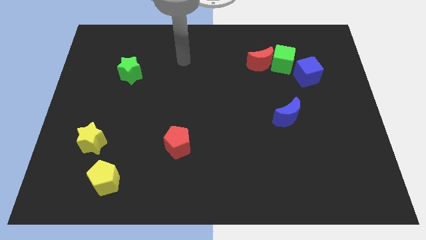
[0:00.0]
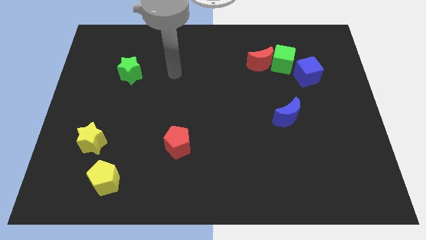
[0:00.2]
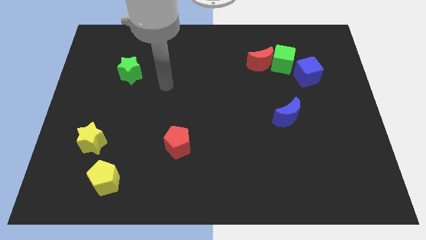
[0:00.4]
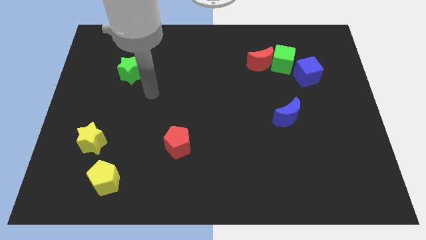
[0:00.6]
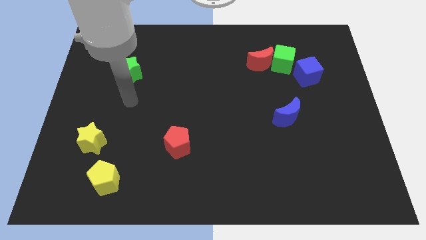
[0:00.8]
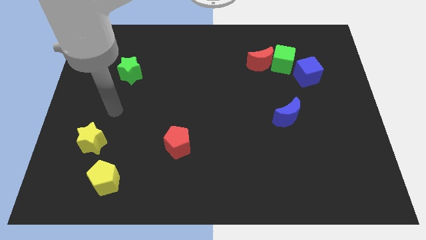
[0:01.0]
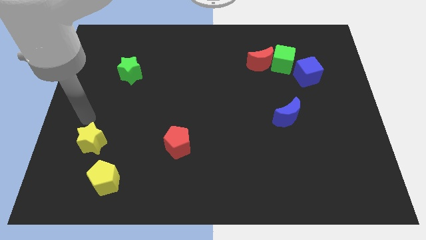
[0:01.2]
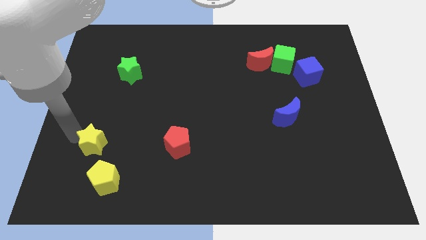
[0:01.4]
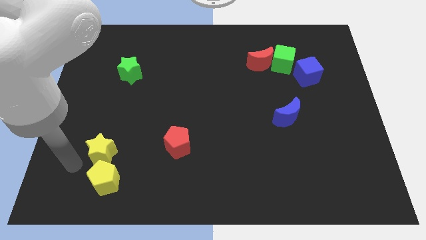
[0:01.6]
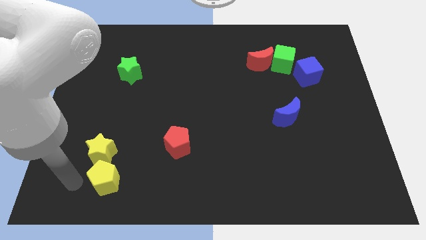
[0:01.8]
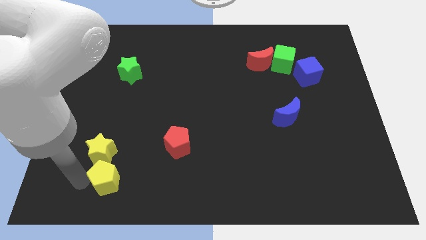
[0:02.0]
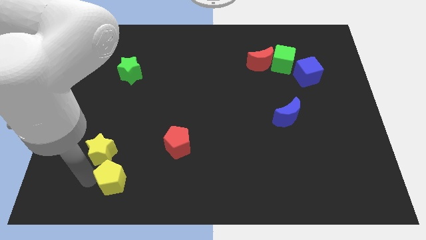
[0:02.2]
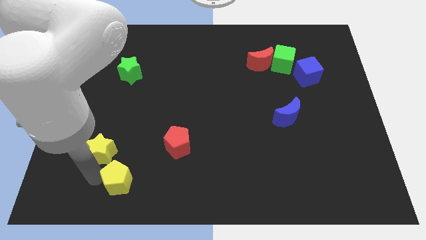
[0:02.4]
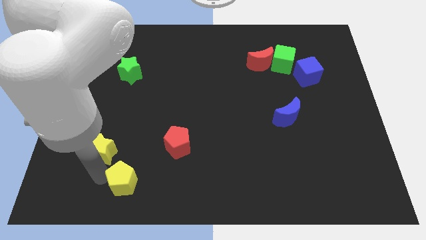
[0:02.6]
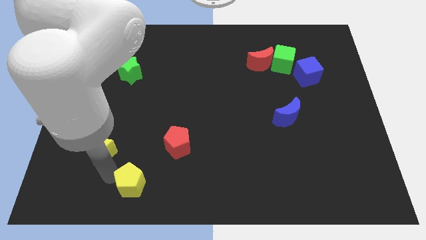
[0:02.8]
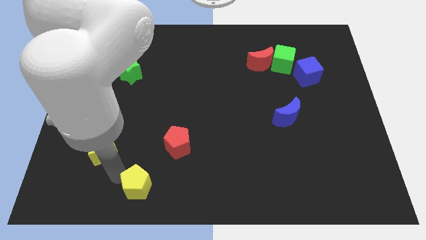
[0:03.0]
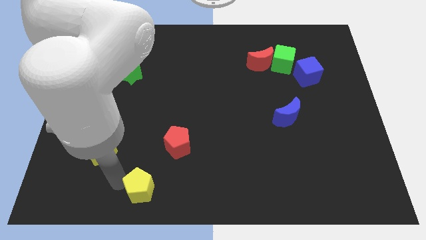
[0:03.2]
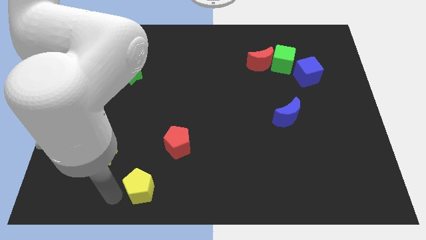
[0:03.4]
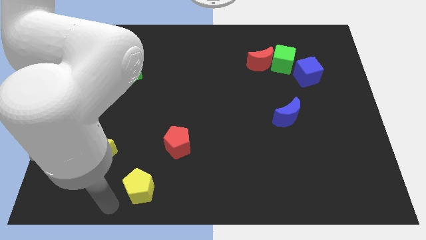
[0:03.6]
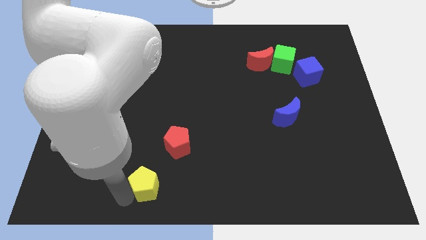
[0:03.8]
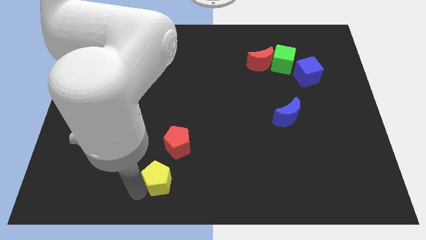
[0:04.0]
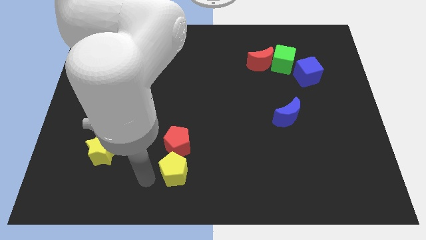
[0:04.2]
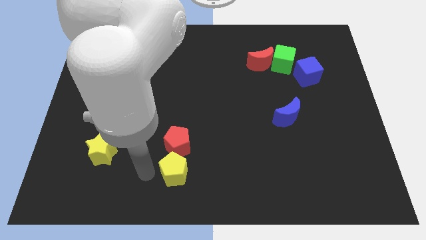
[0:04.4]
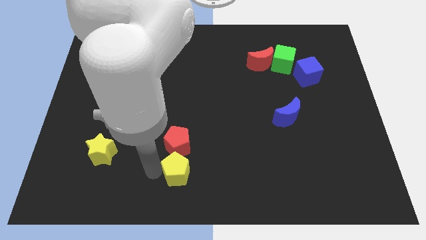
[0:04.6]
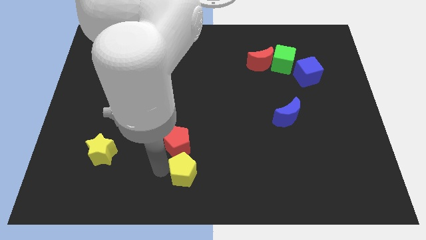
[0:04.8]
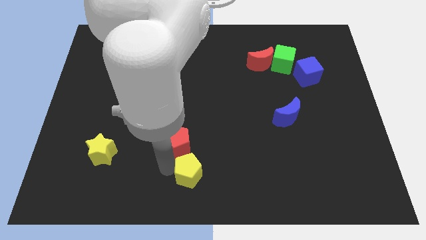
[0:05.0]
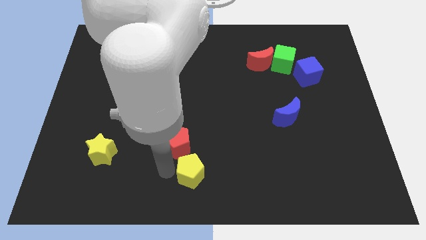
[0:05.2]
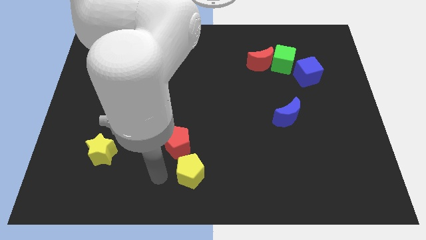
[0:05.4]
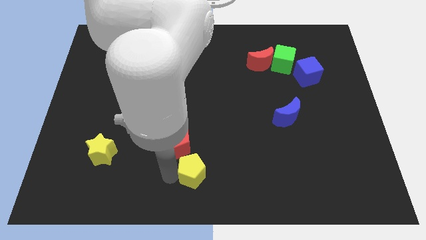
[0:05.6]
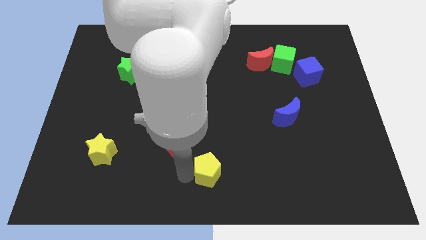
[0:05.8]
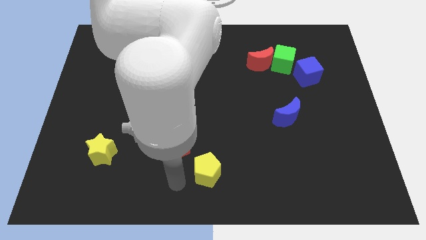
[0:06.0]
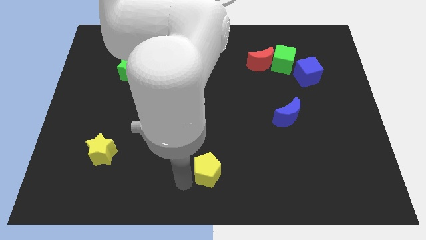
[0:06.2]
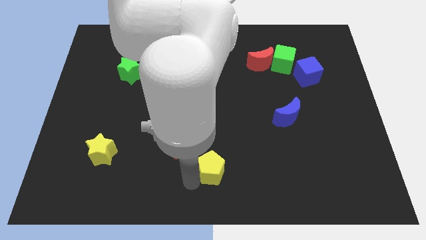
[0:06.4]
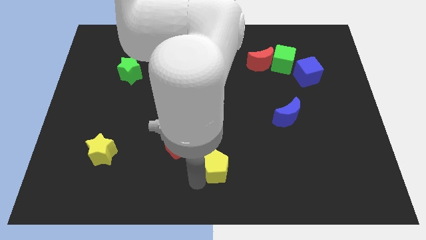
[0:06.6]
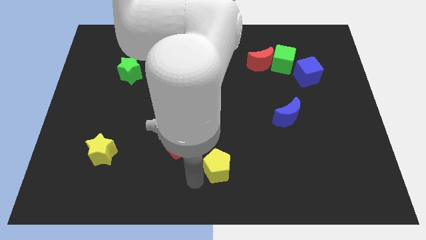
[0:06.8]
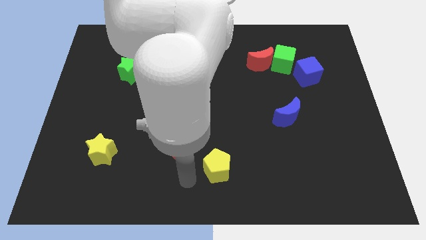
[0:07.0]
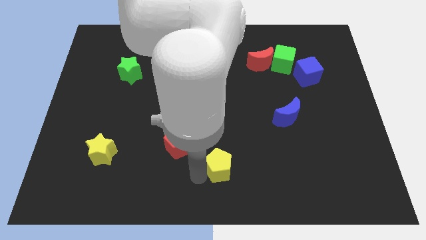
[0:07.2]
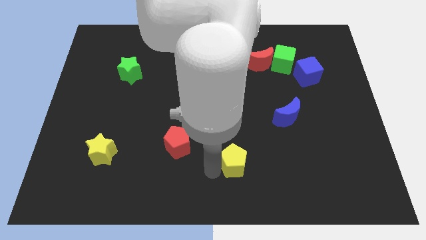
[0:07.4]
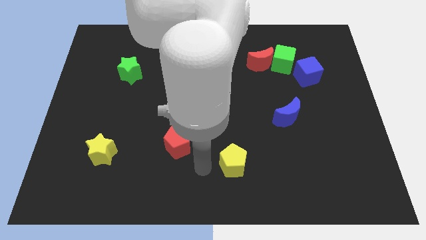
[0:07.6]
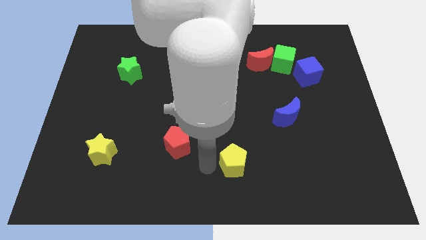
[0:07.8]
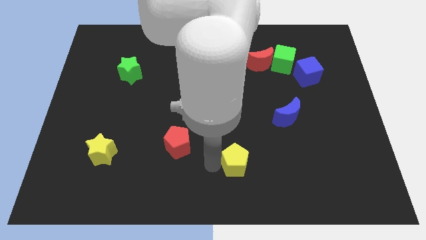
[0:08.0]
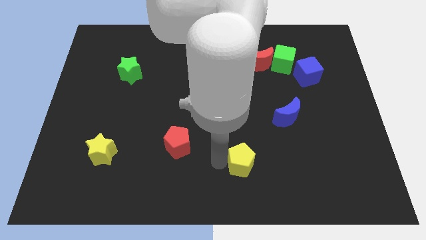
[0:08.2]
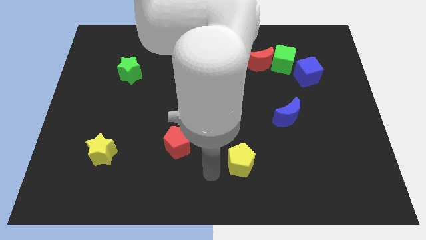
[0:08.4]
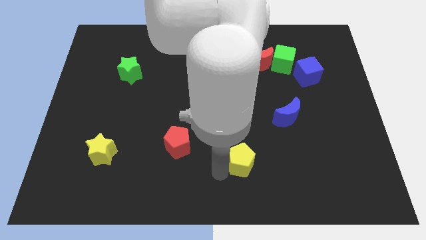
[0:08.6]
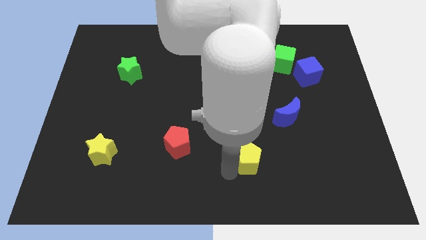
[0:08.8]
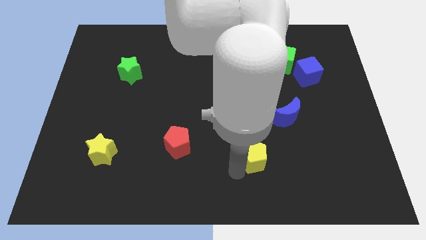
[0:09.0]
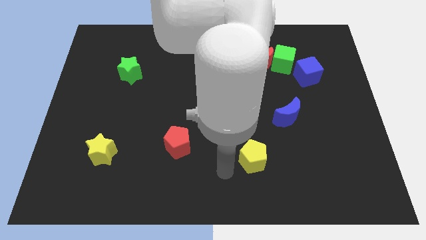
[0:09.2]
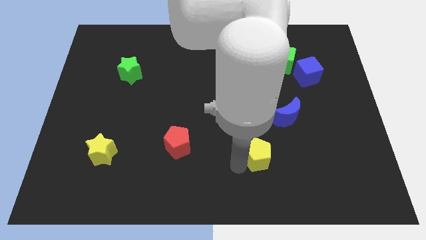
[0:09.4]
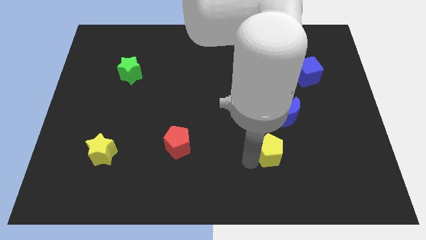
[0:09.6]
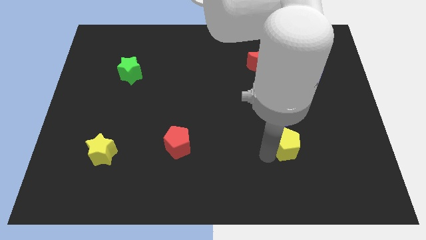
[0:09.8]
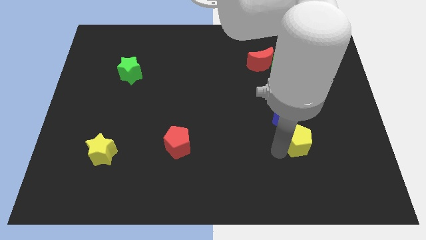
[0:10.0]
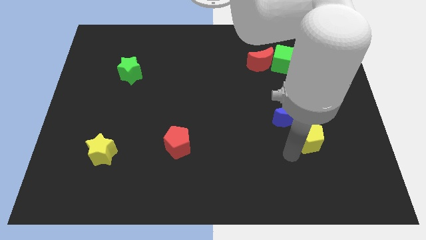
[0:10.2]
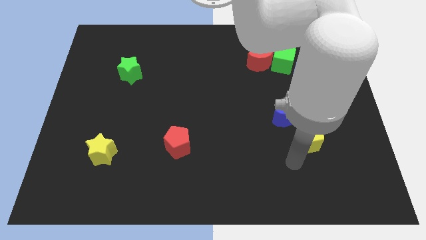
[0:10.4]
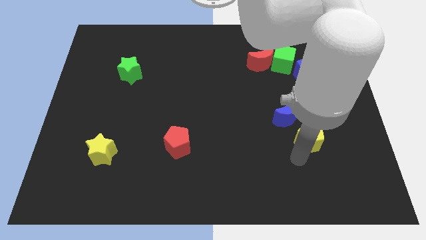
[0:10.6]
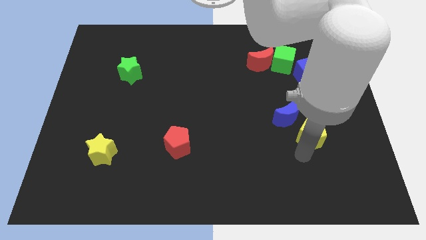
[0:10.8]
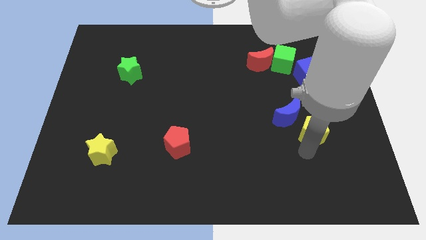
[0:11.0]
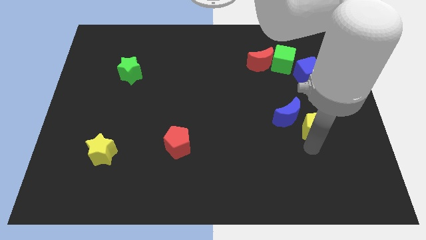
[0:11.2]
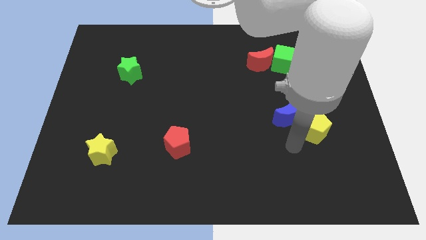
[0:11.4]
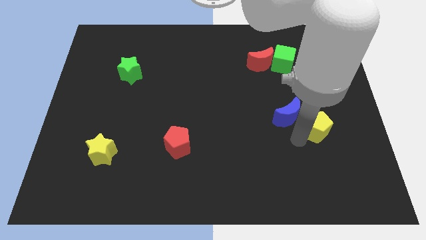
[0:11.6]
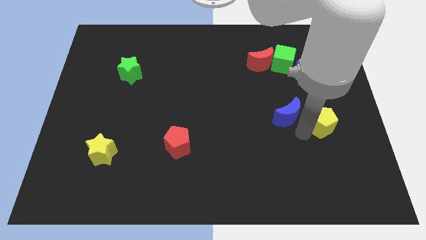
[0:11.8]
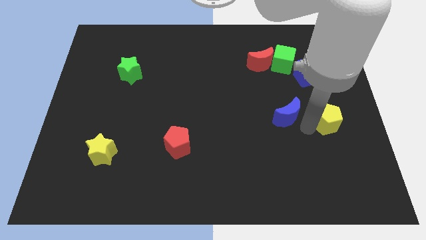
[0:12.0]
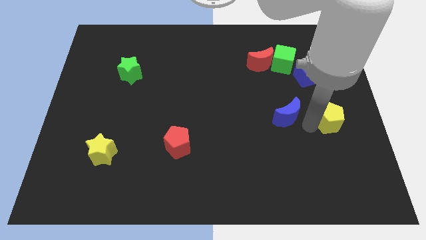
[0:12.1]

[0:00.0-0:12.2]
put the yellow pentagon to the right side

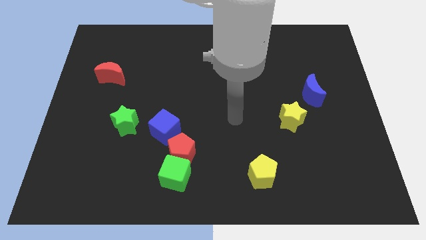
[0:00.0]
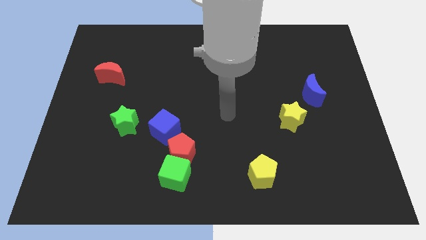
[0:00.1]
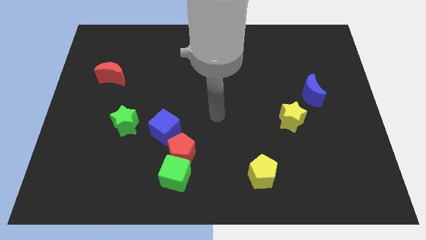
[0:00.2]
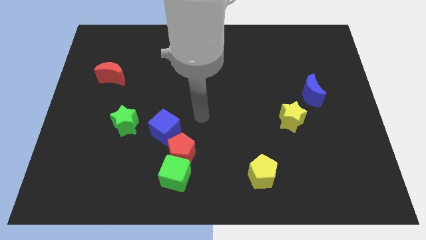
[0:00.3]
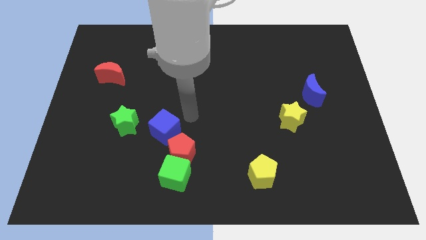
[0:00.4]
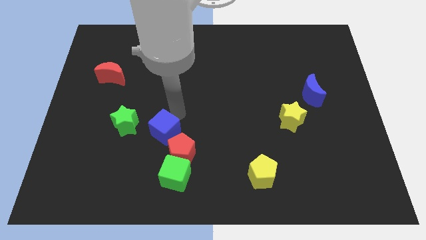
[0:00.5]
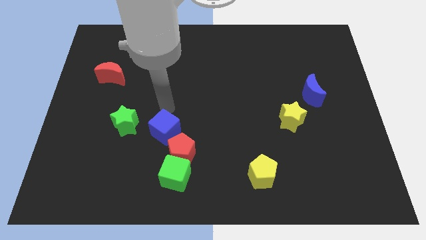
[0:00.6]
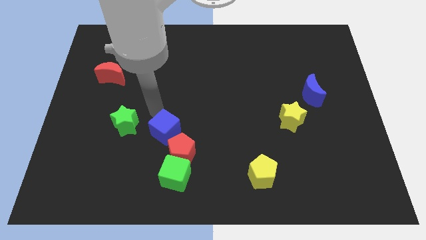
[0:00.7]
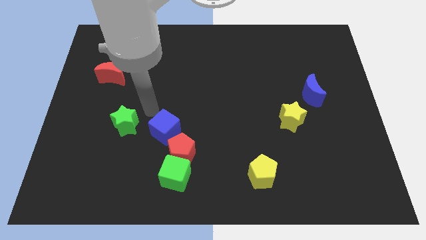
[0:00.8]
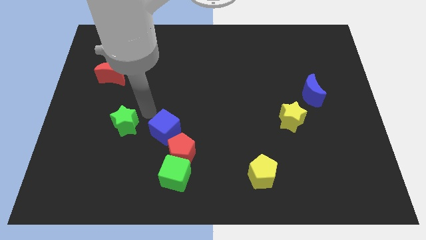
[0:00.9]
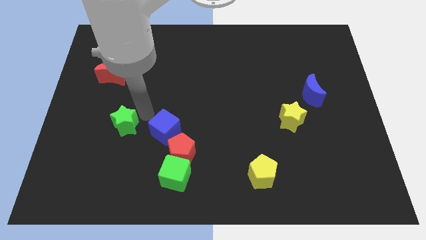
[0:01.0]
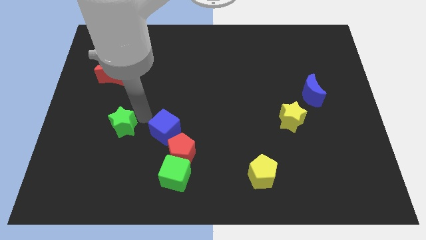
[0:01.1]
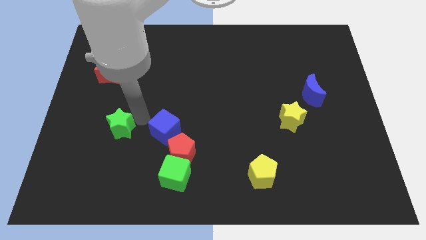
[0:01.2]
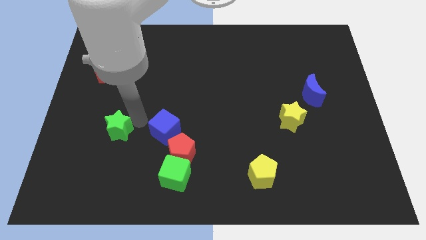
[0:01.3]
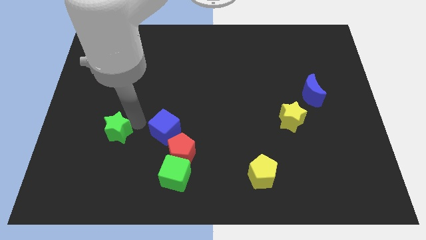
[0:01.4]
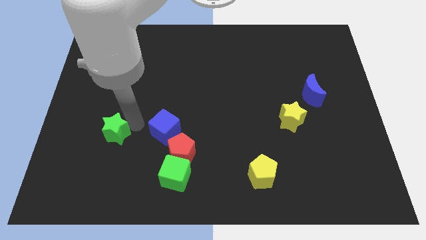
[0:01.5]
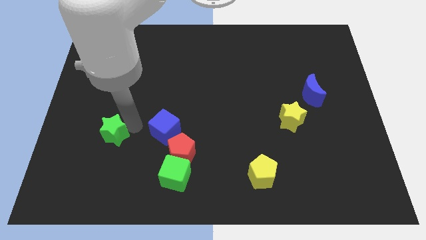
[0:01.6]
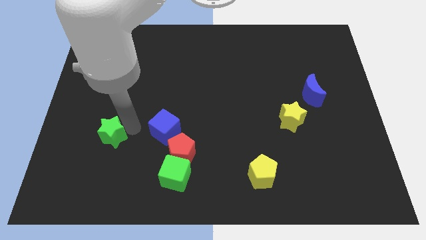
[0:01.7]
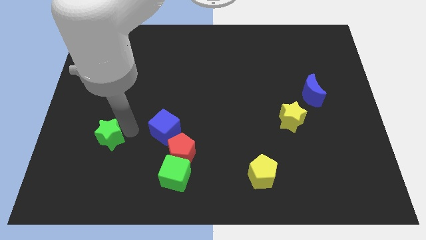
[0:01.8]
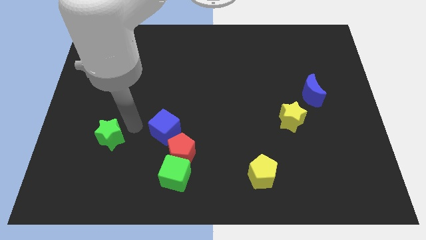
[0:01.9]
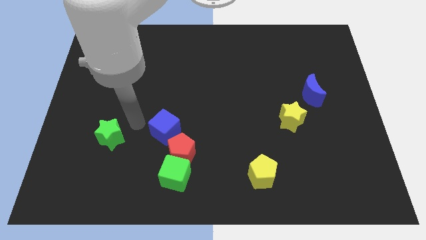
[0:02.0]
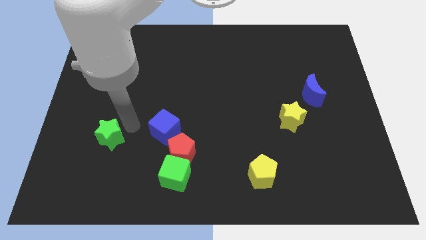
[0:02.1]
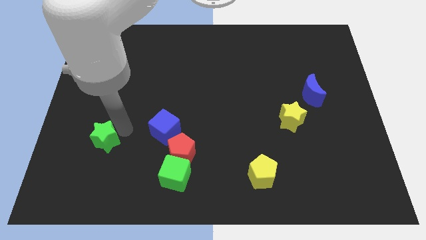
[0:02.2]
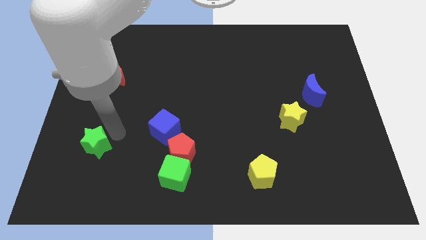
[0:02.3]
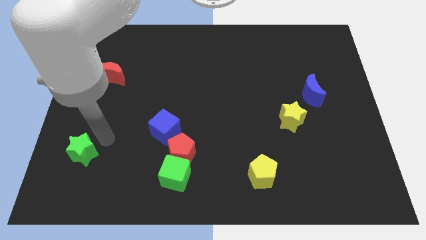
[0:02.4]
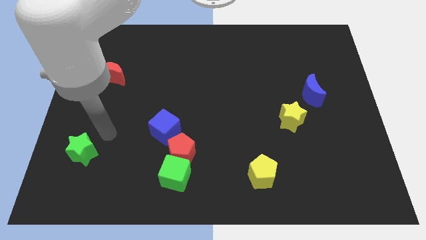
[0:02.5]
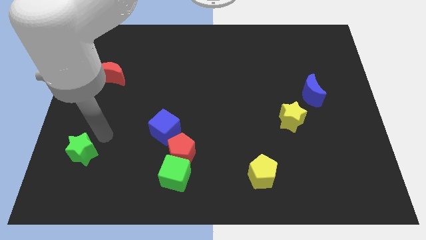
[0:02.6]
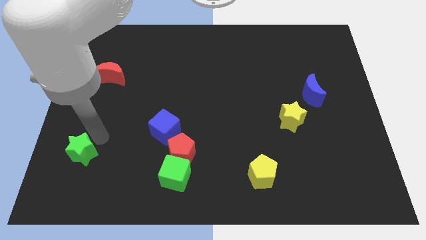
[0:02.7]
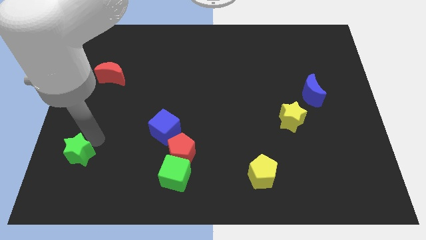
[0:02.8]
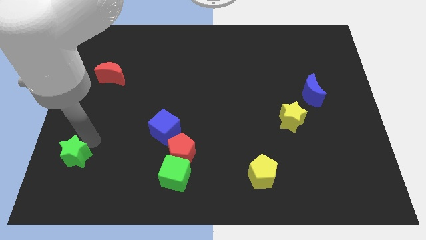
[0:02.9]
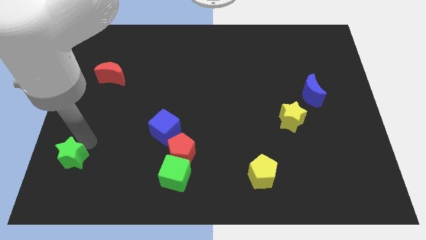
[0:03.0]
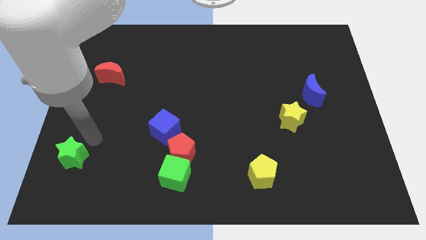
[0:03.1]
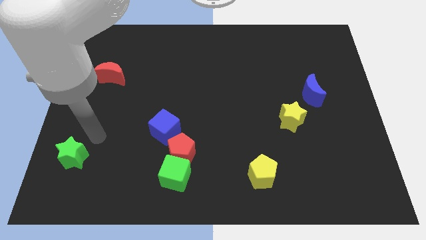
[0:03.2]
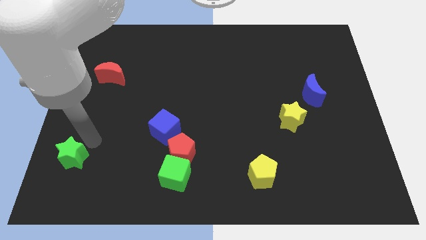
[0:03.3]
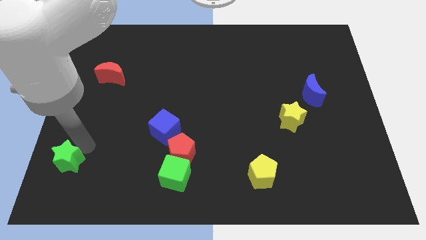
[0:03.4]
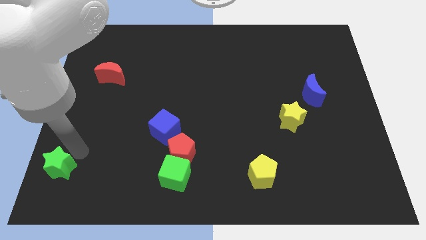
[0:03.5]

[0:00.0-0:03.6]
put the green star to the bottom left
